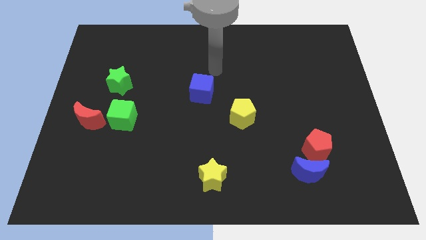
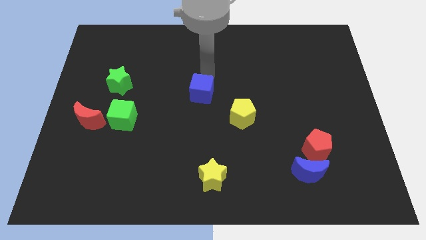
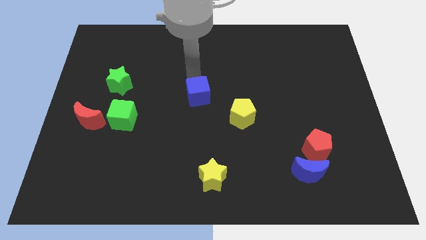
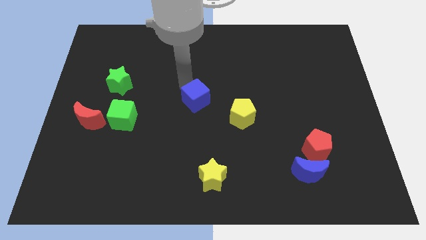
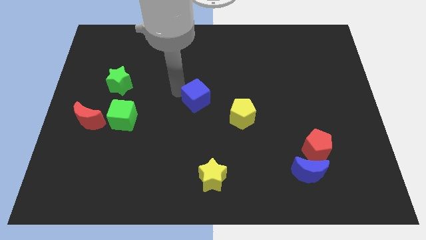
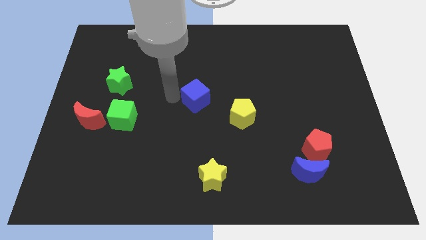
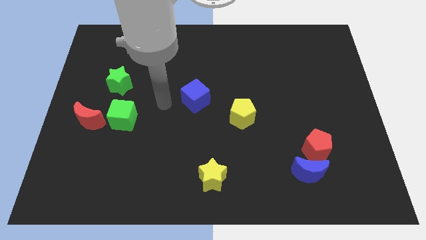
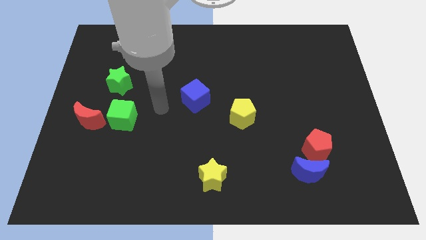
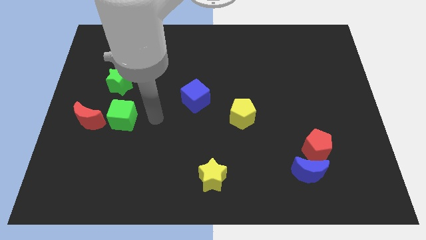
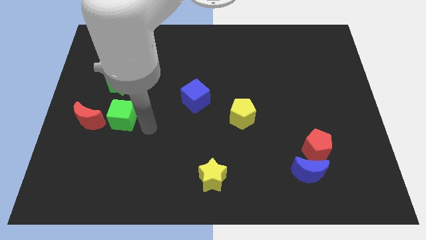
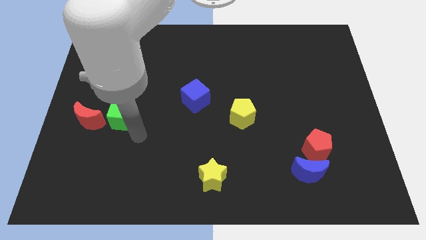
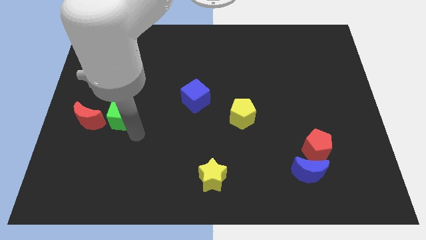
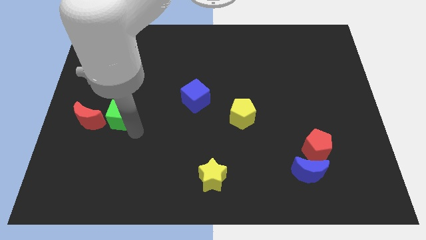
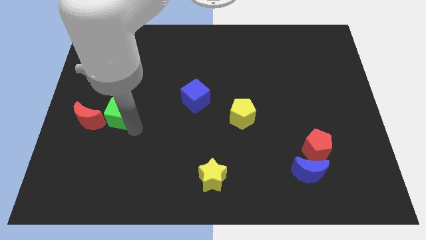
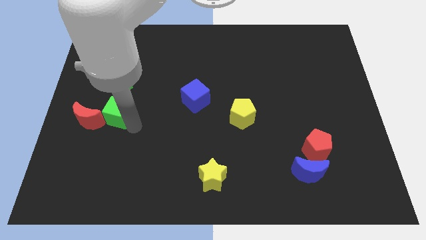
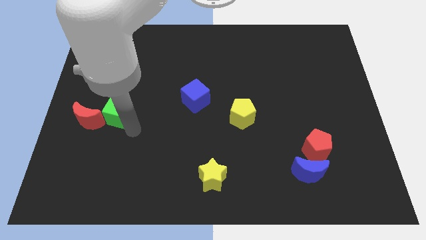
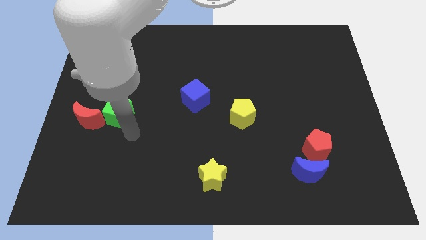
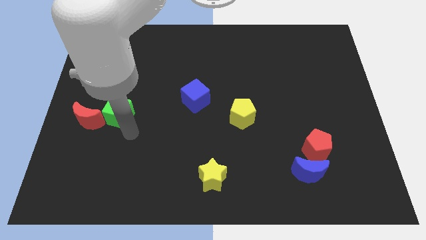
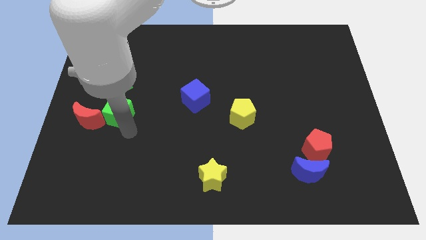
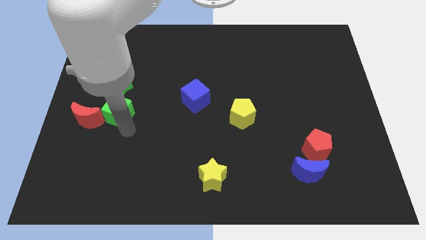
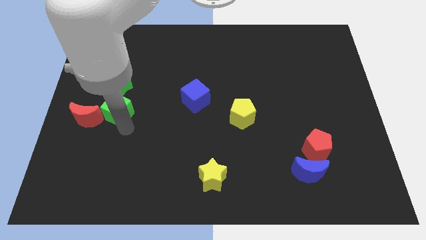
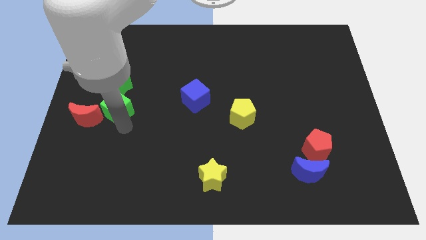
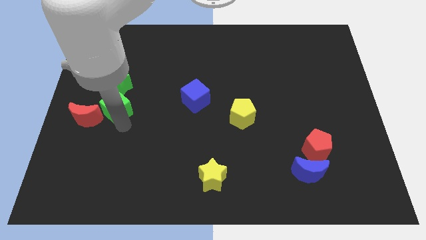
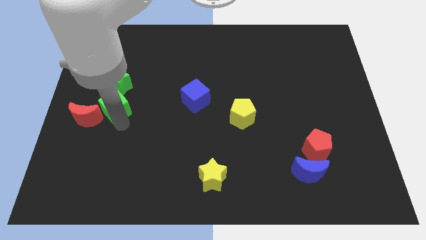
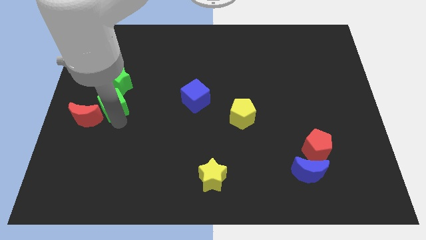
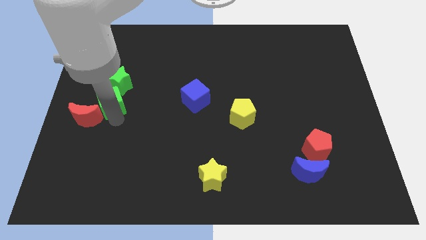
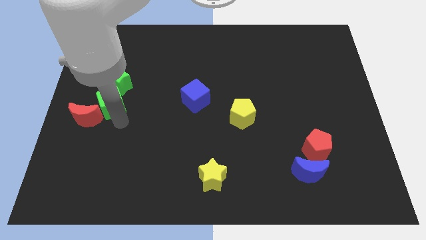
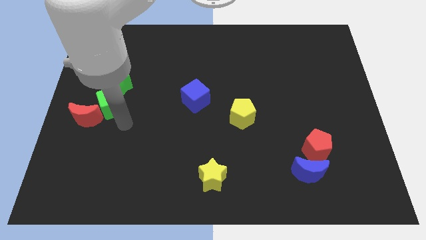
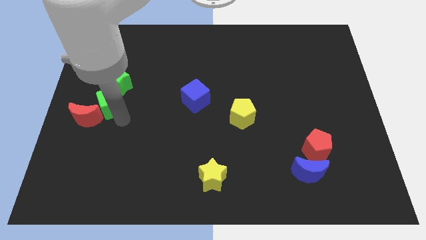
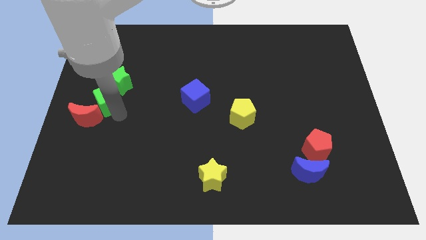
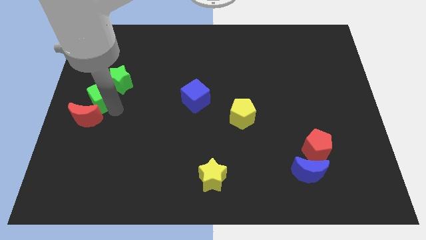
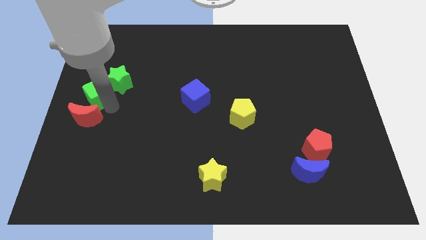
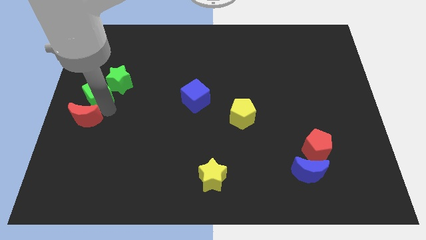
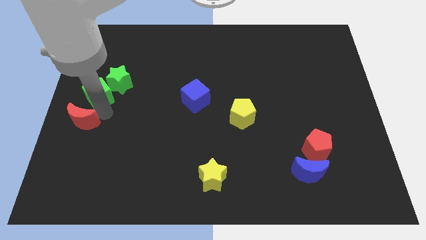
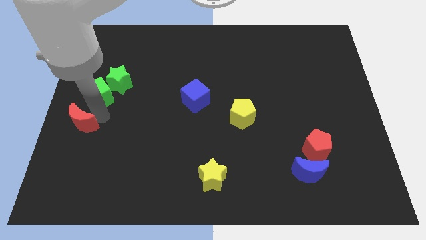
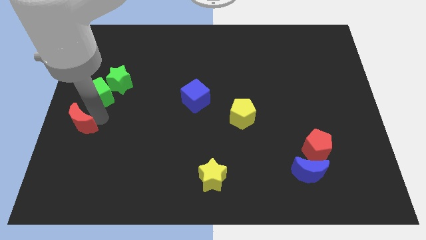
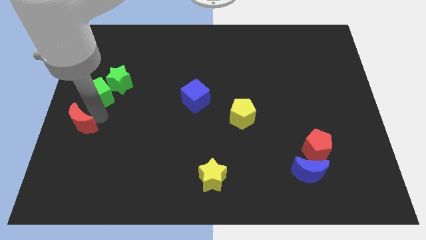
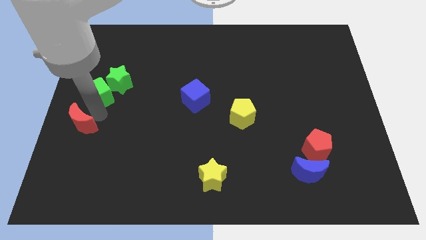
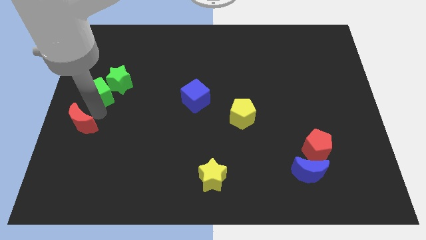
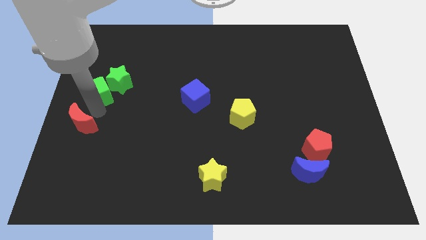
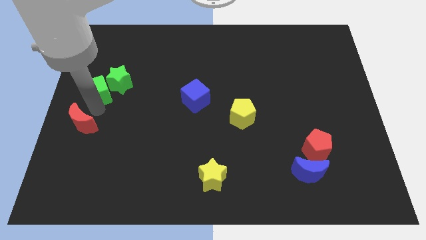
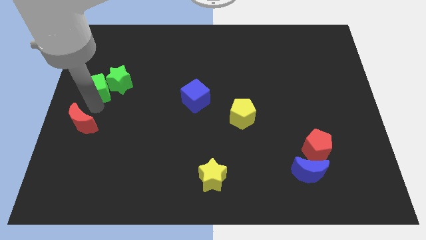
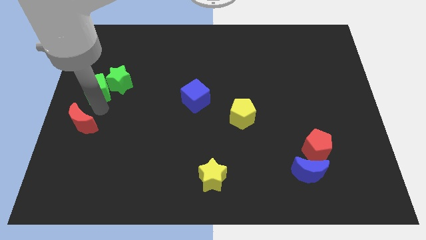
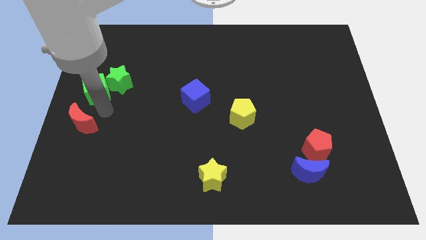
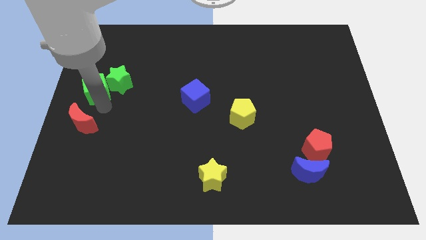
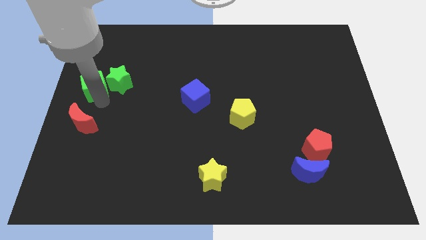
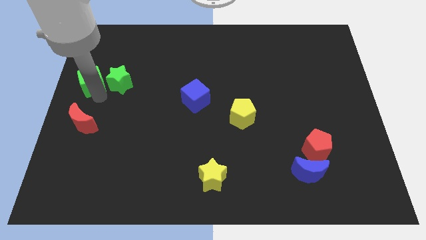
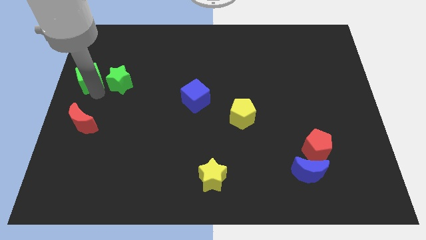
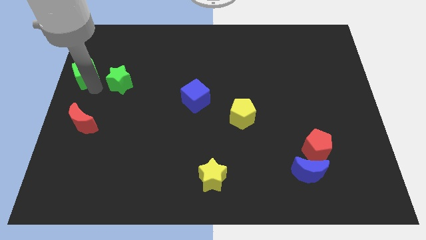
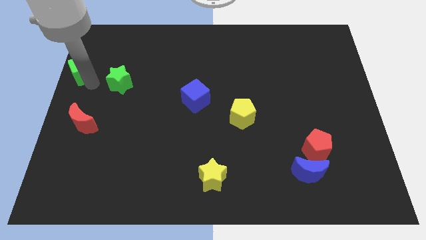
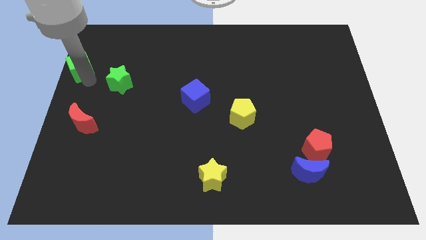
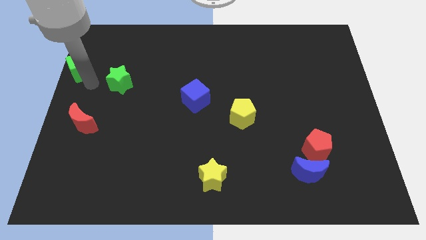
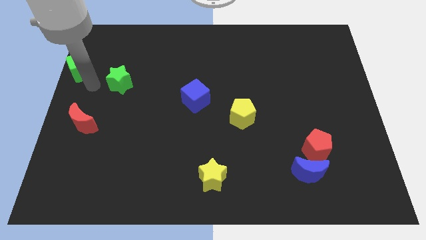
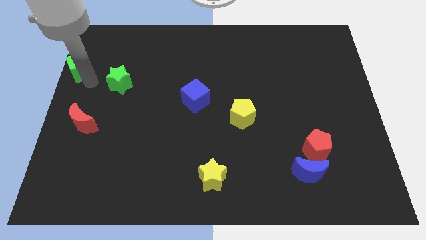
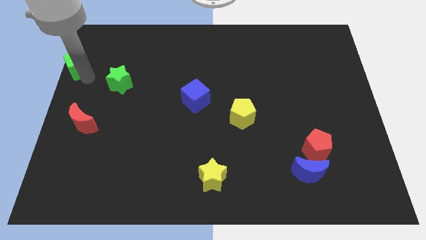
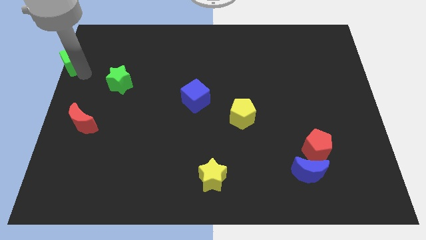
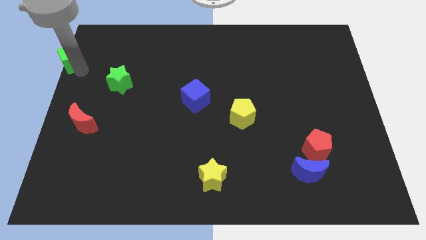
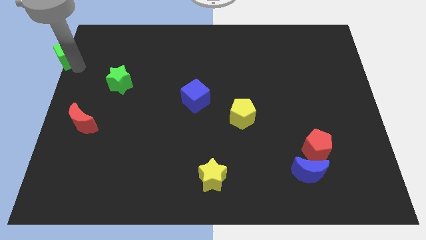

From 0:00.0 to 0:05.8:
slide the green cube to the top left
